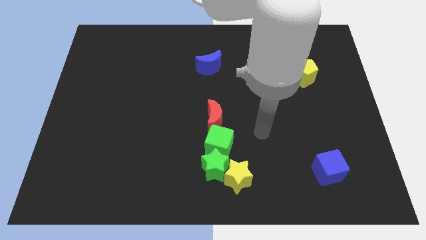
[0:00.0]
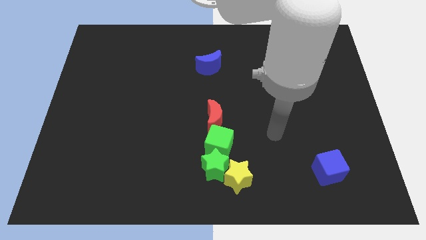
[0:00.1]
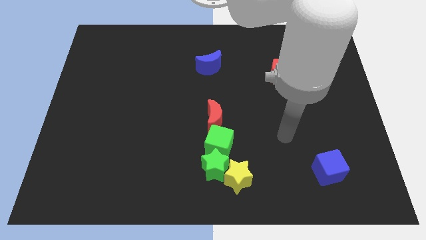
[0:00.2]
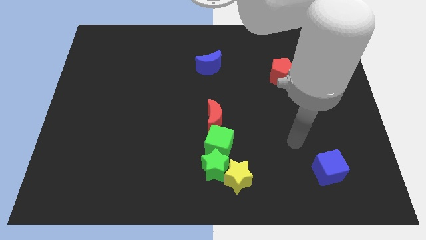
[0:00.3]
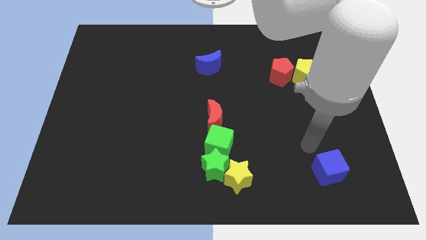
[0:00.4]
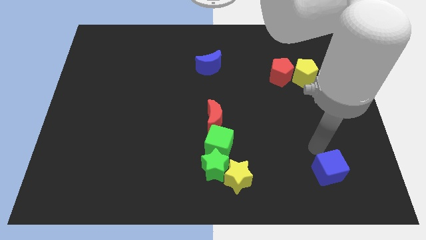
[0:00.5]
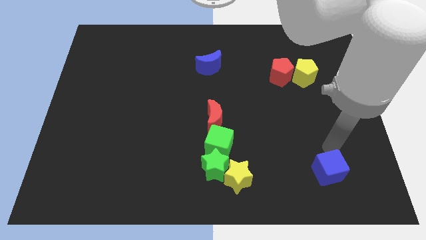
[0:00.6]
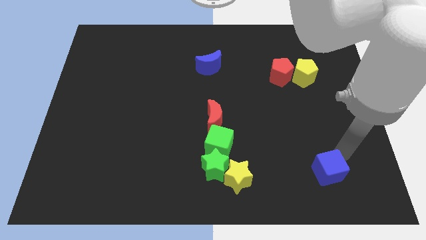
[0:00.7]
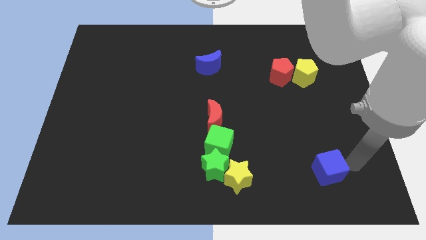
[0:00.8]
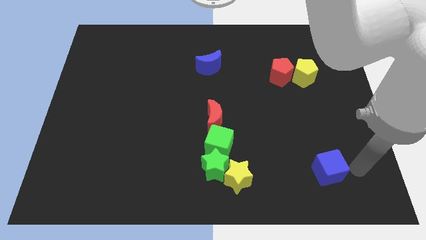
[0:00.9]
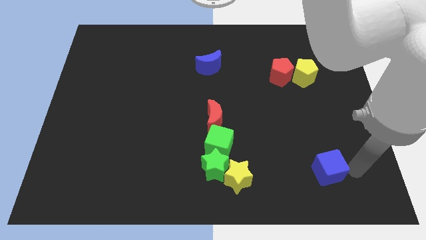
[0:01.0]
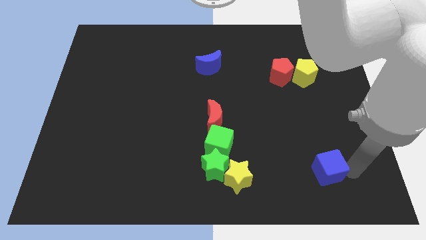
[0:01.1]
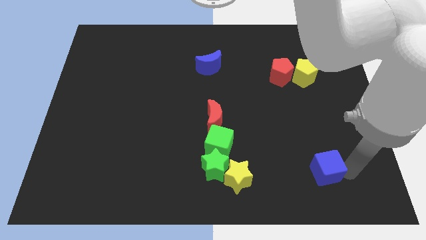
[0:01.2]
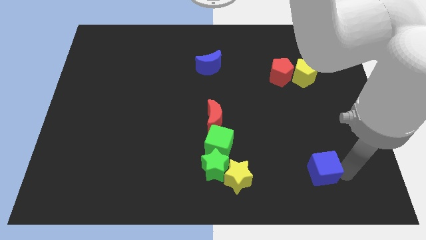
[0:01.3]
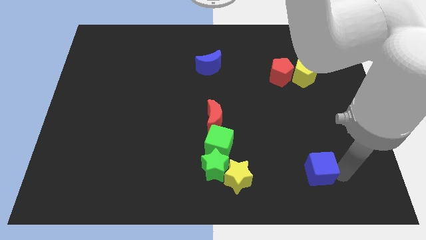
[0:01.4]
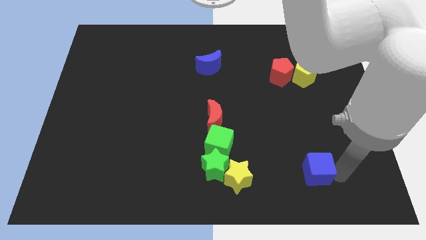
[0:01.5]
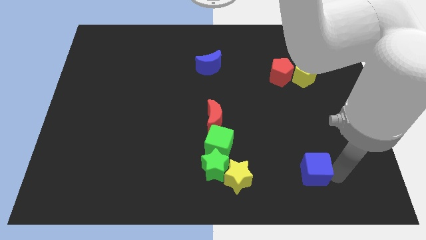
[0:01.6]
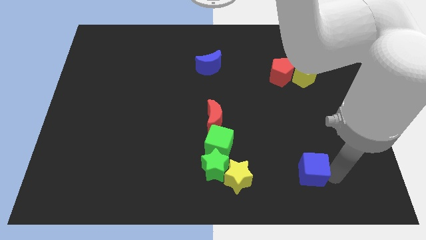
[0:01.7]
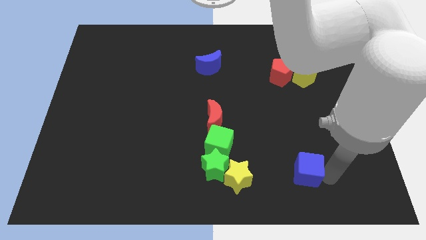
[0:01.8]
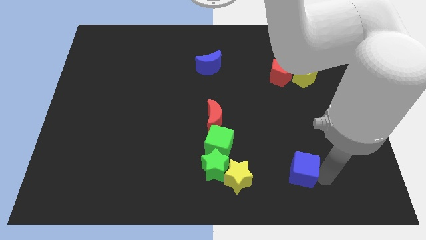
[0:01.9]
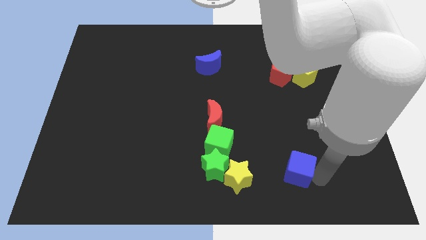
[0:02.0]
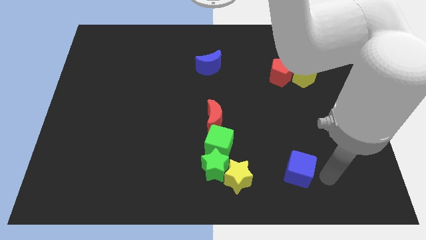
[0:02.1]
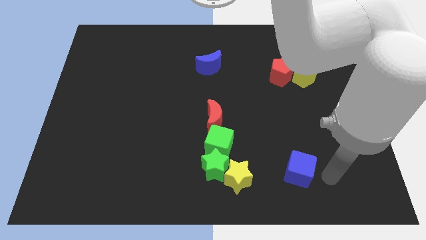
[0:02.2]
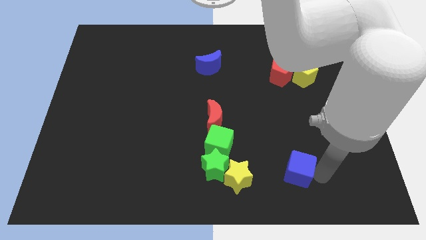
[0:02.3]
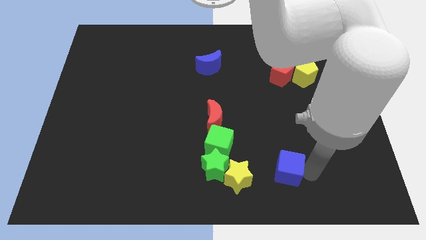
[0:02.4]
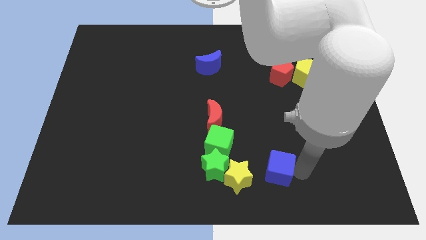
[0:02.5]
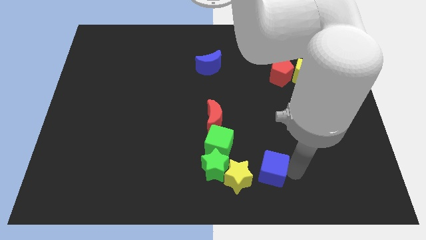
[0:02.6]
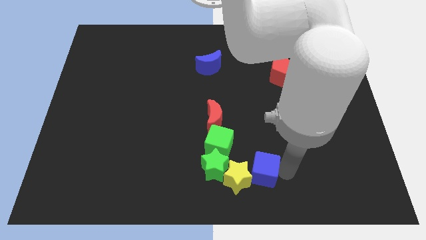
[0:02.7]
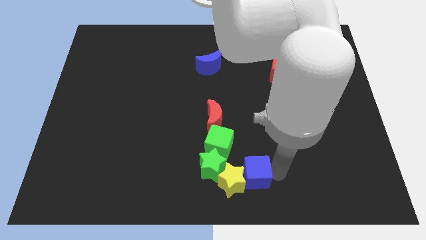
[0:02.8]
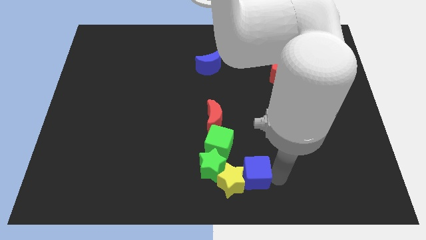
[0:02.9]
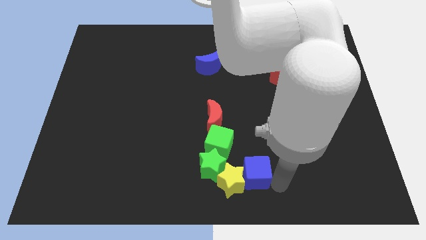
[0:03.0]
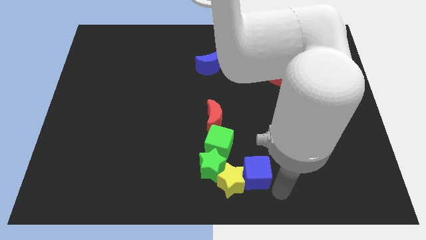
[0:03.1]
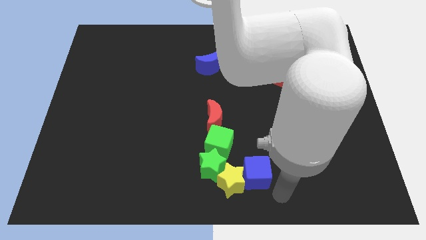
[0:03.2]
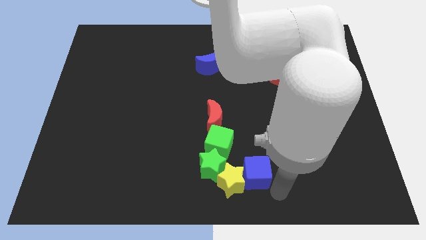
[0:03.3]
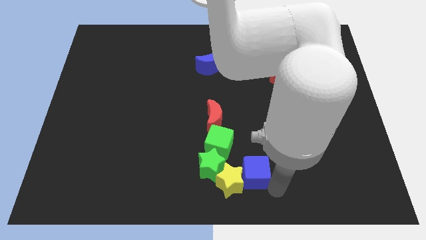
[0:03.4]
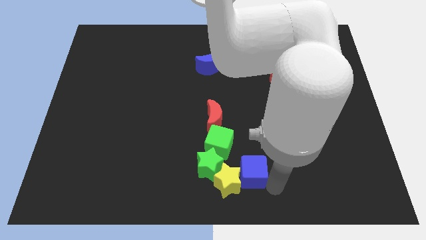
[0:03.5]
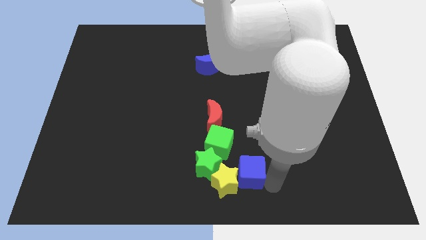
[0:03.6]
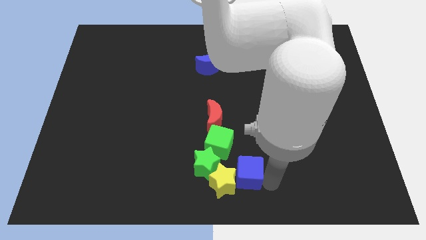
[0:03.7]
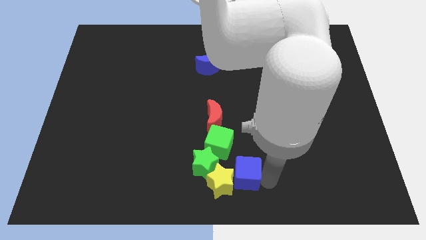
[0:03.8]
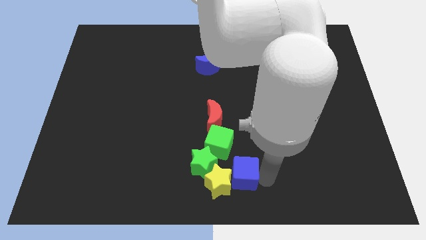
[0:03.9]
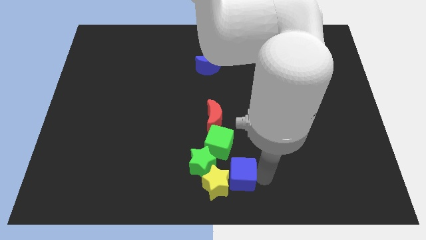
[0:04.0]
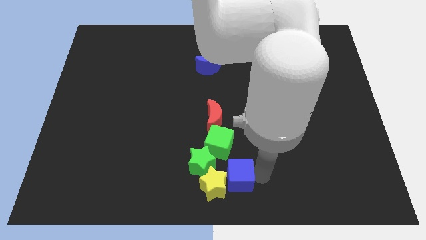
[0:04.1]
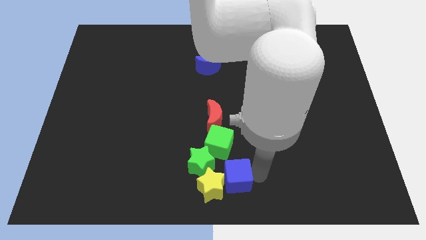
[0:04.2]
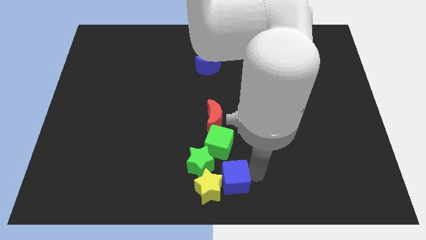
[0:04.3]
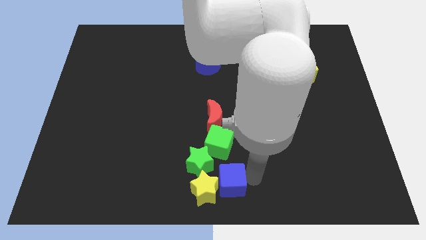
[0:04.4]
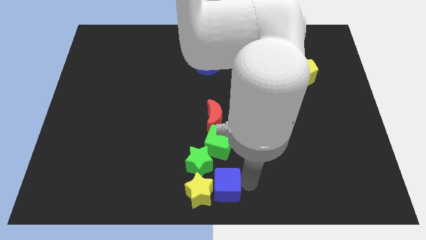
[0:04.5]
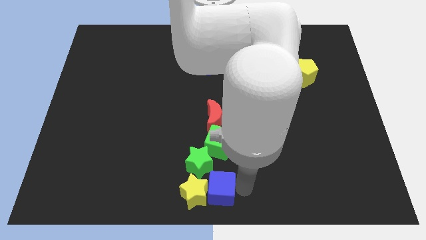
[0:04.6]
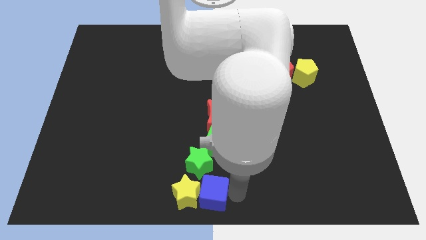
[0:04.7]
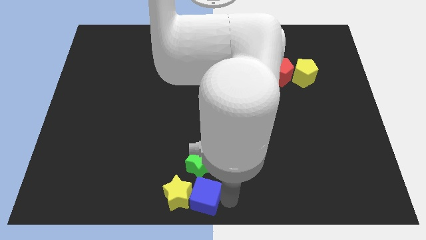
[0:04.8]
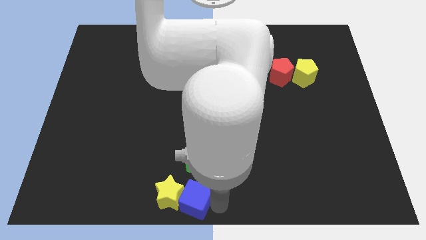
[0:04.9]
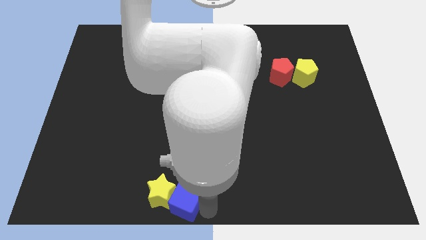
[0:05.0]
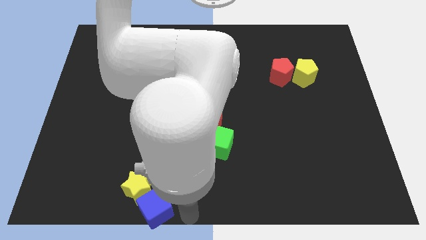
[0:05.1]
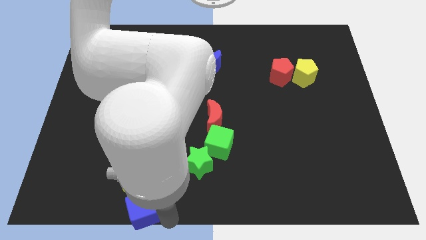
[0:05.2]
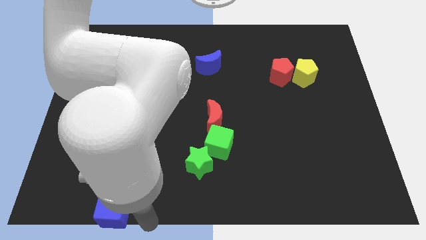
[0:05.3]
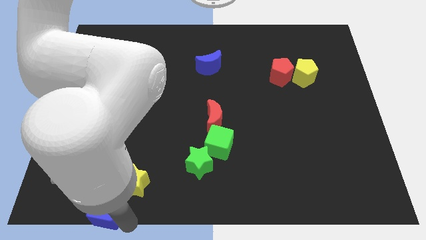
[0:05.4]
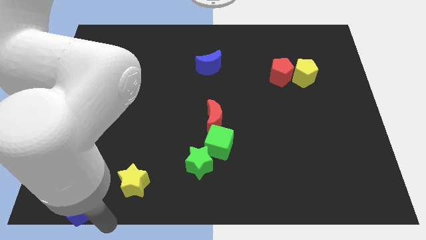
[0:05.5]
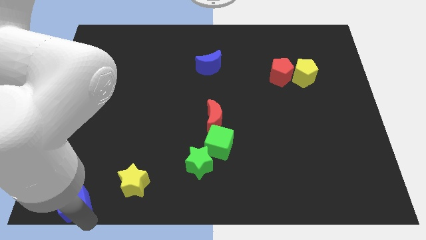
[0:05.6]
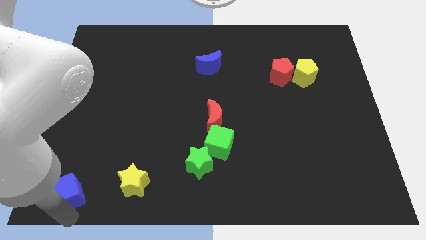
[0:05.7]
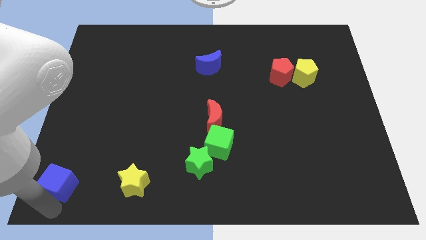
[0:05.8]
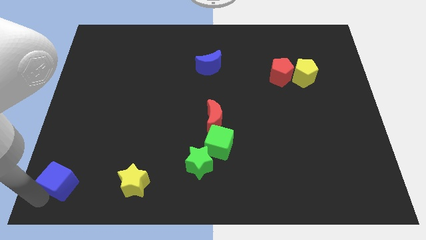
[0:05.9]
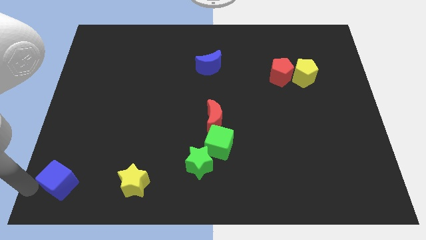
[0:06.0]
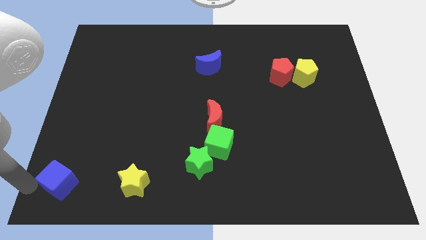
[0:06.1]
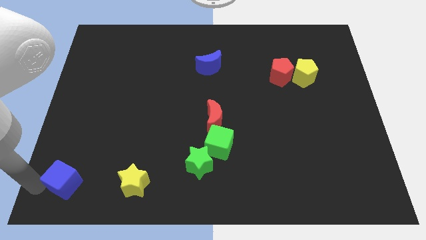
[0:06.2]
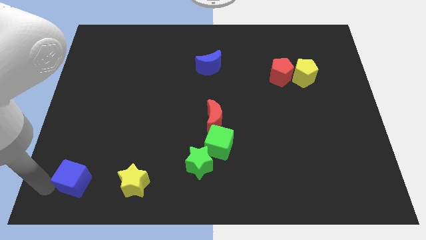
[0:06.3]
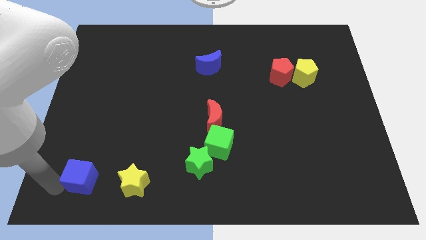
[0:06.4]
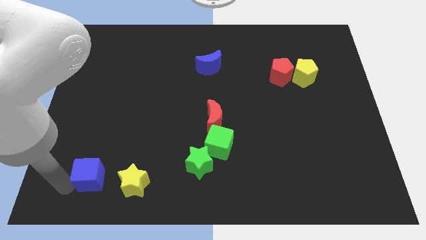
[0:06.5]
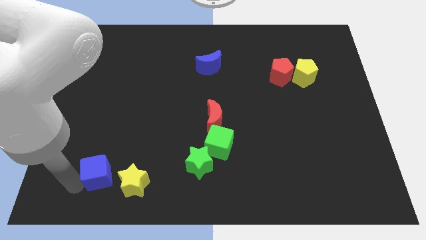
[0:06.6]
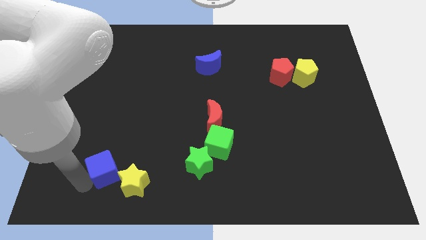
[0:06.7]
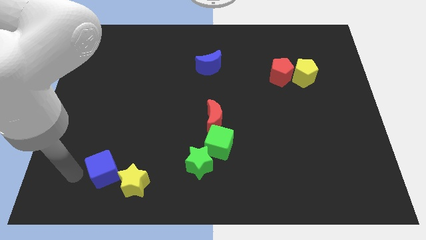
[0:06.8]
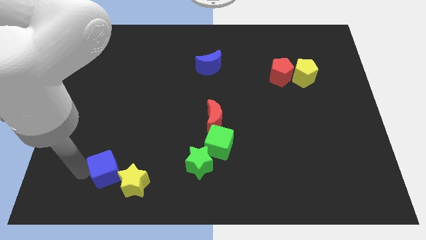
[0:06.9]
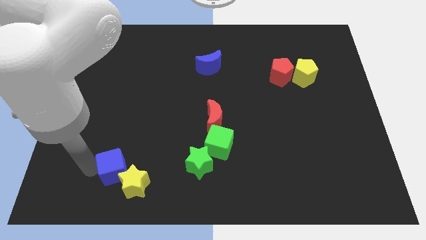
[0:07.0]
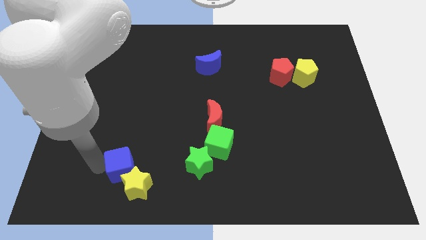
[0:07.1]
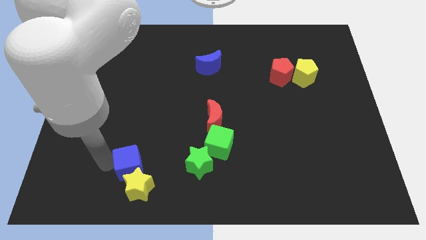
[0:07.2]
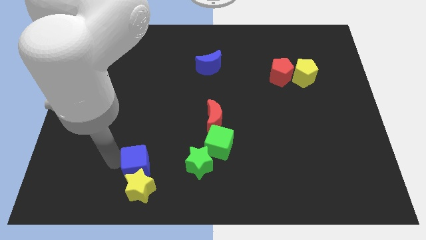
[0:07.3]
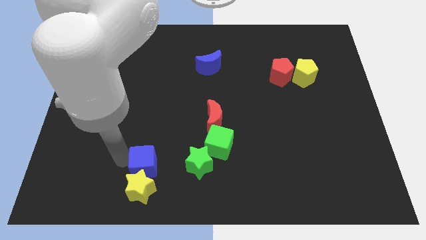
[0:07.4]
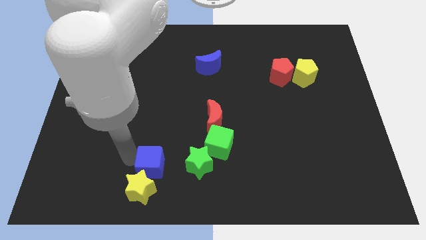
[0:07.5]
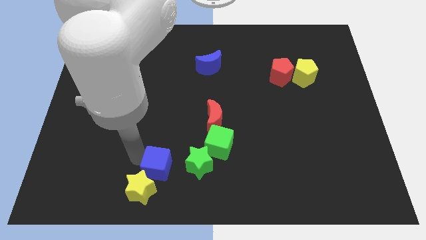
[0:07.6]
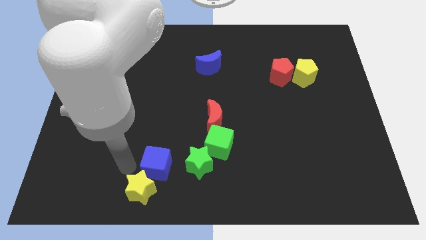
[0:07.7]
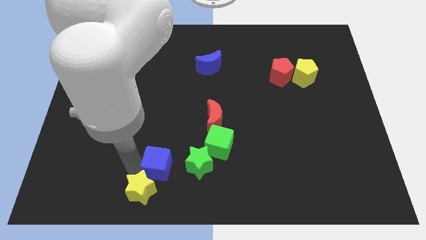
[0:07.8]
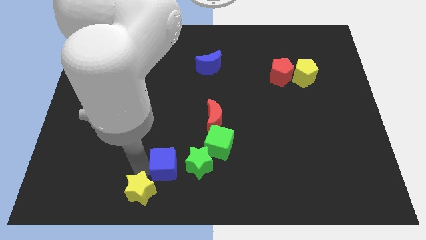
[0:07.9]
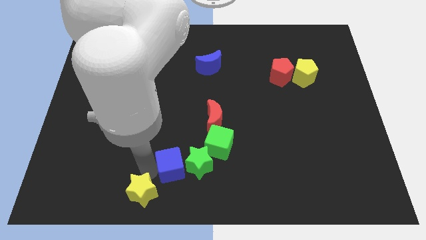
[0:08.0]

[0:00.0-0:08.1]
put the blue cube next to the green star
